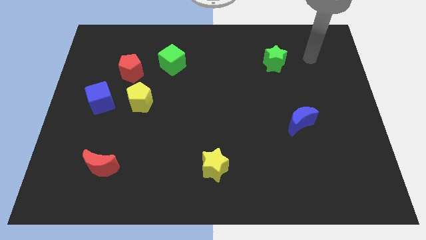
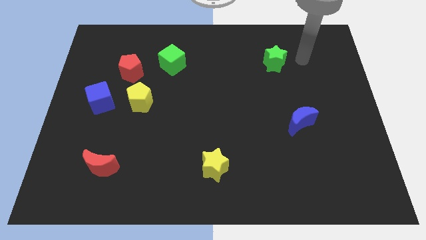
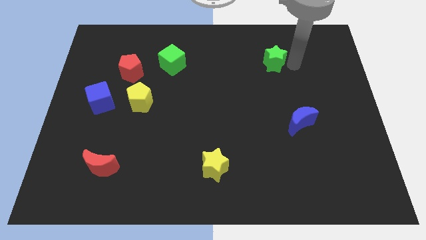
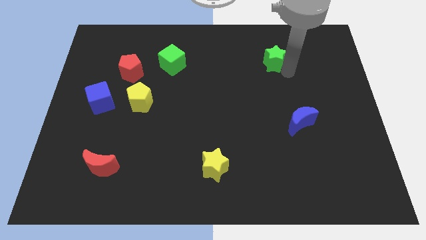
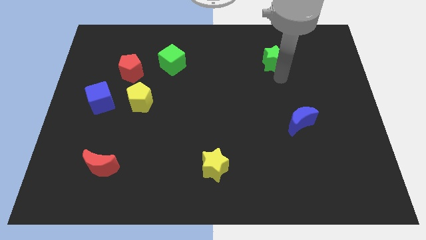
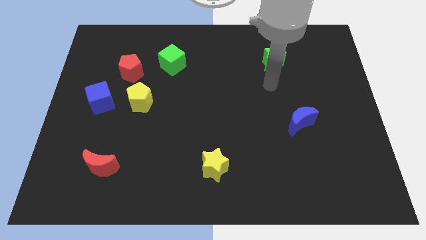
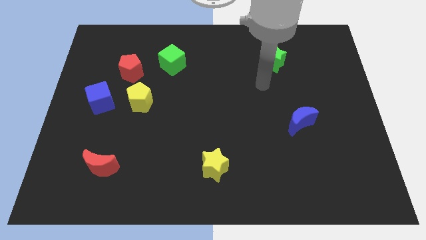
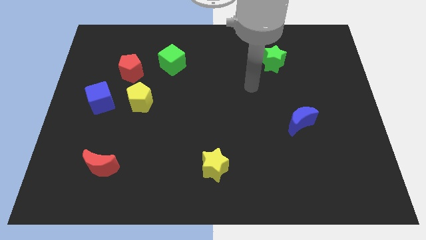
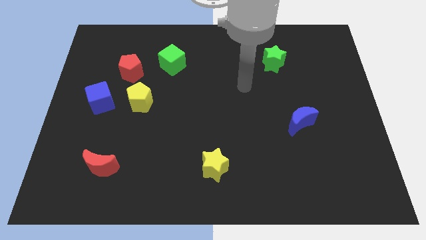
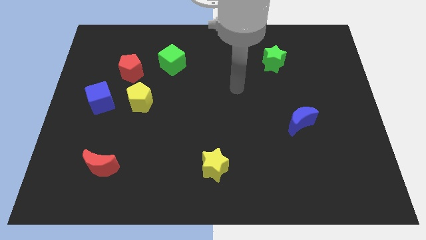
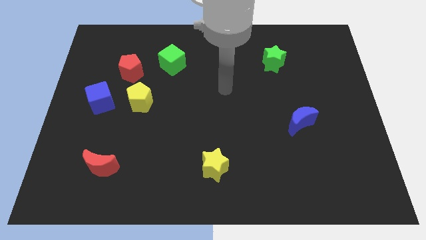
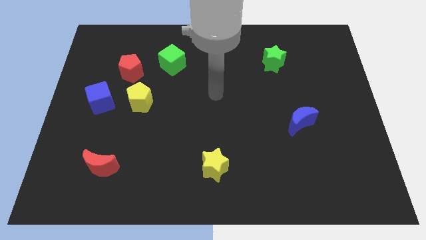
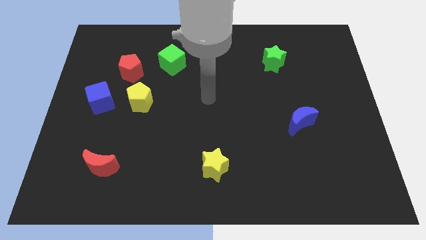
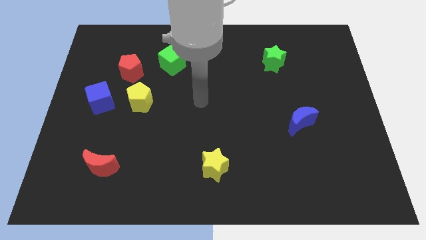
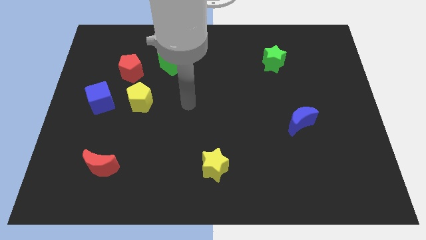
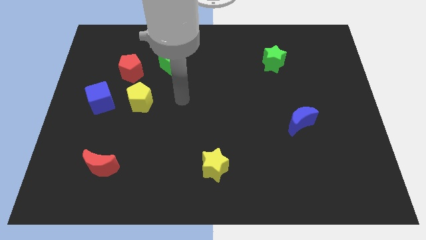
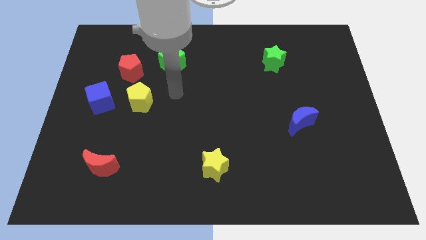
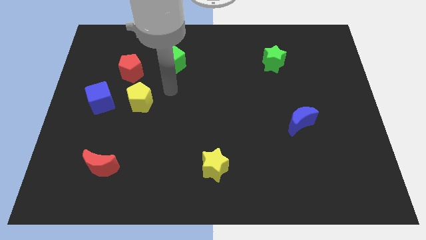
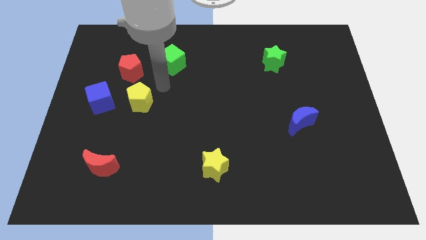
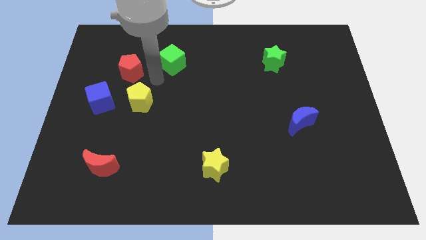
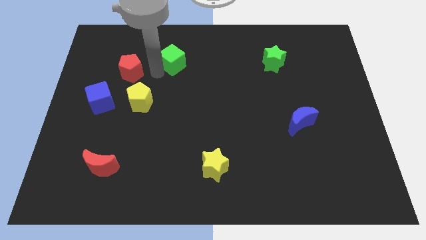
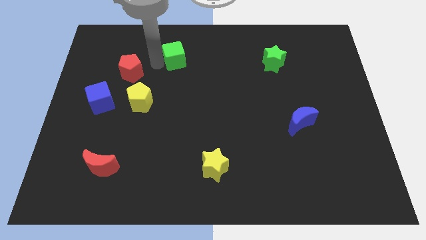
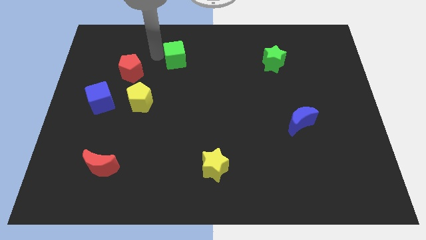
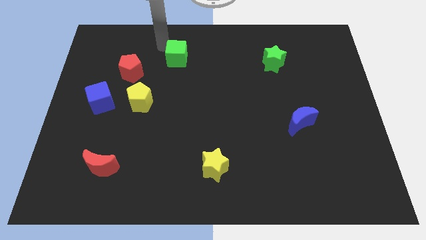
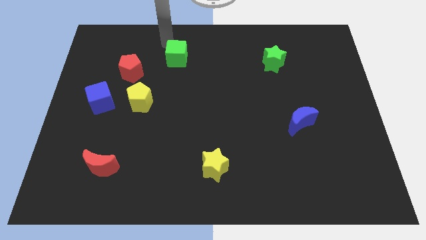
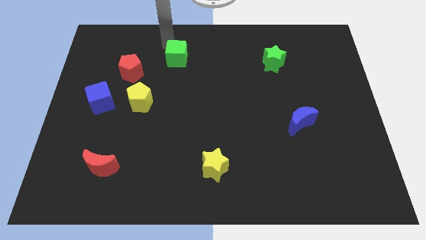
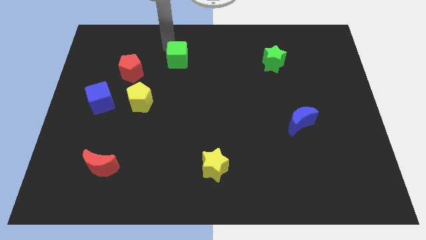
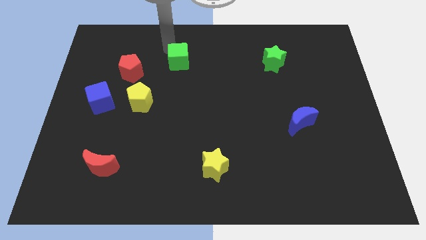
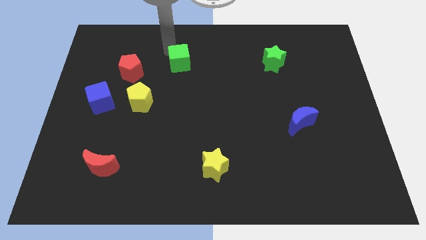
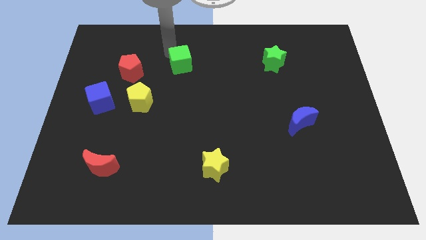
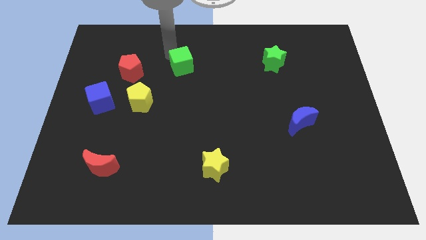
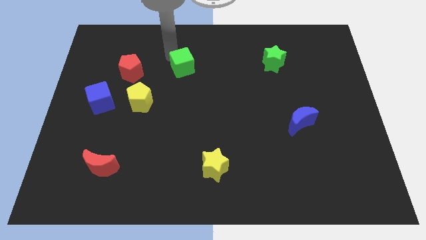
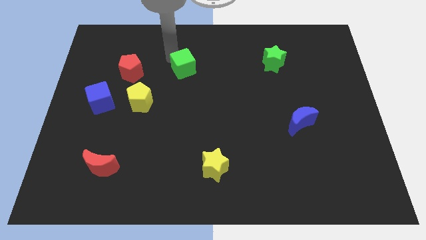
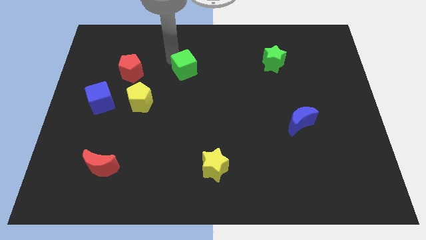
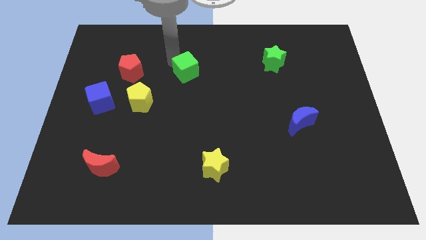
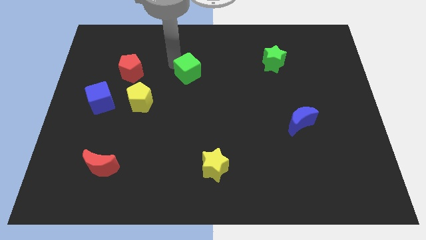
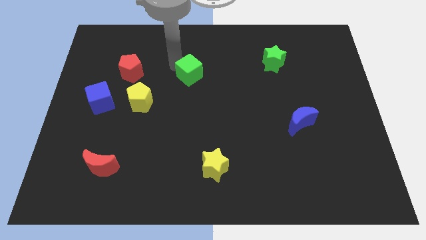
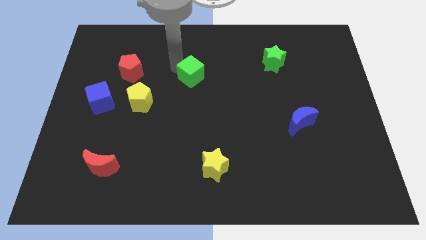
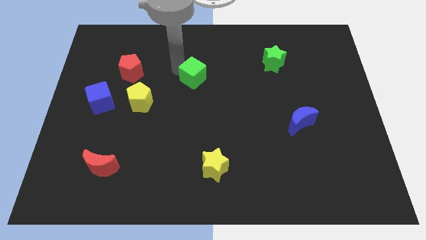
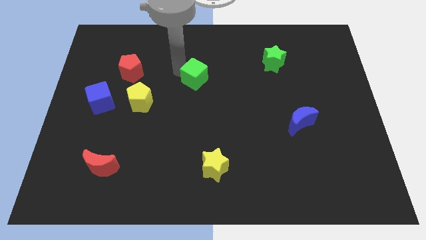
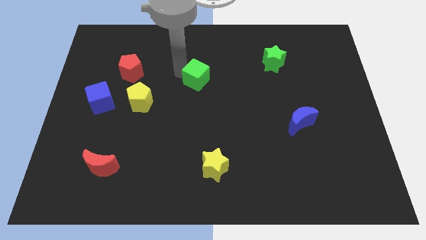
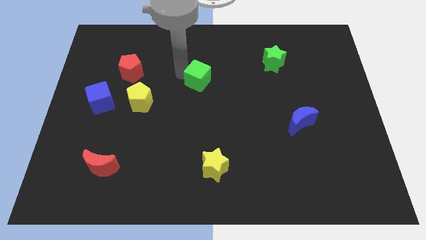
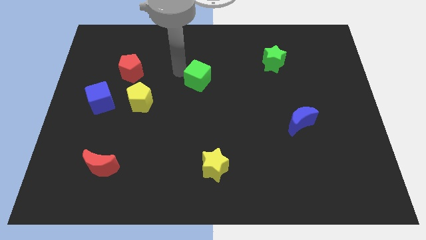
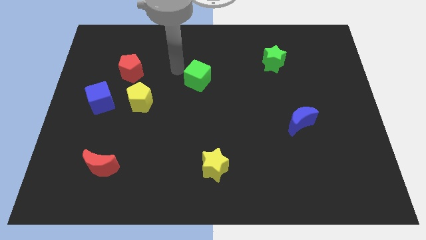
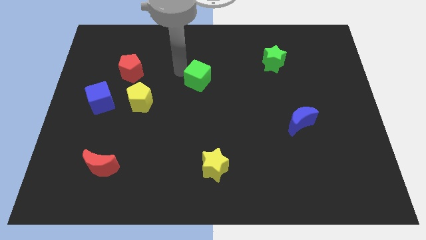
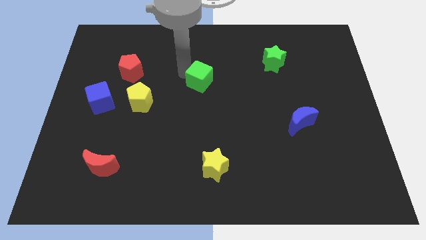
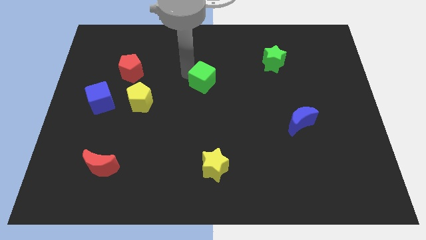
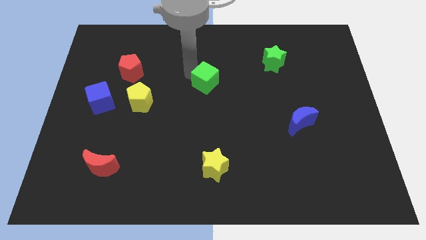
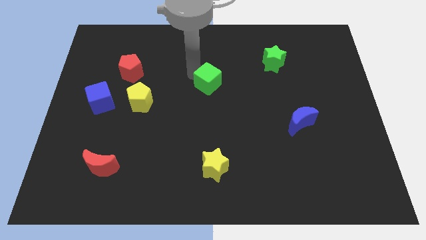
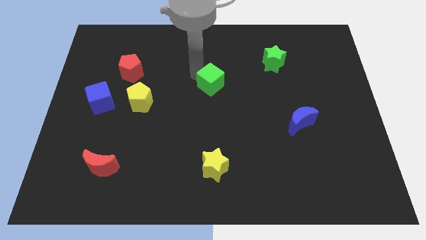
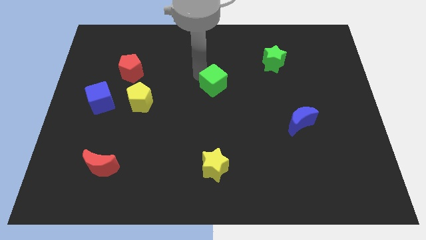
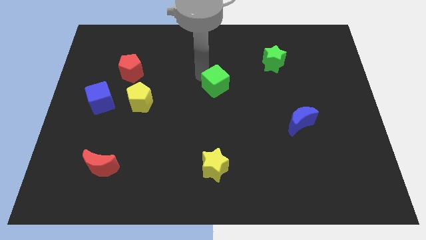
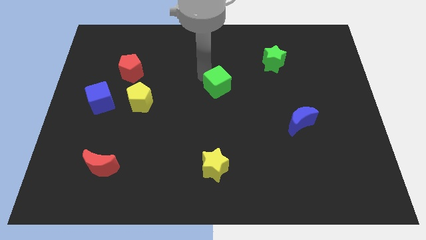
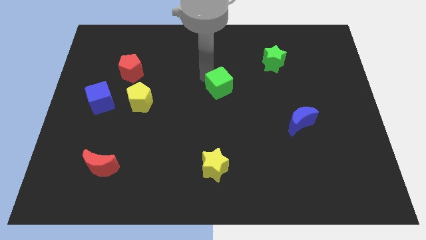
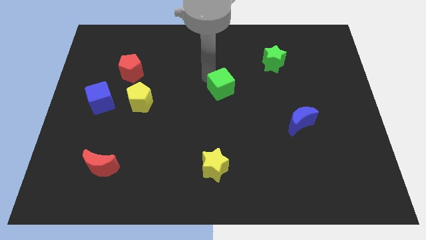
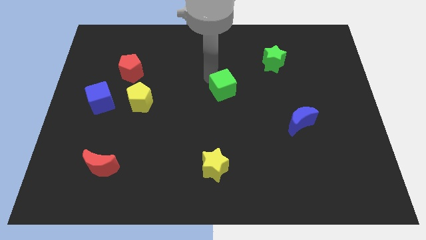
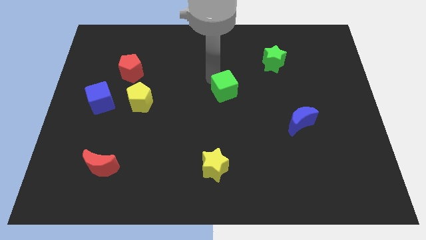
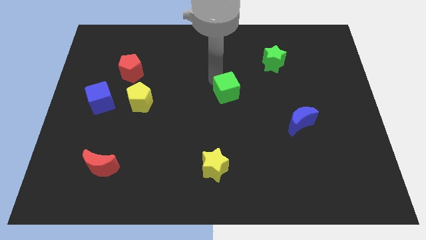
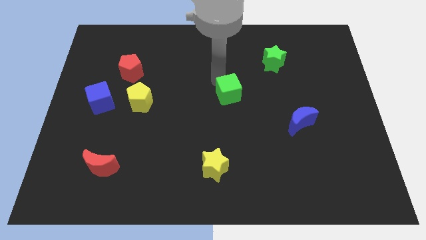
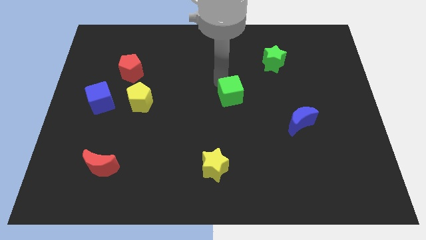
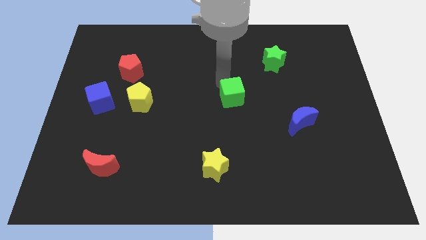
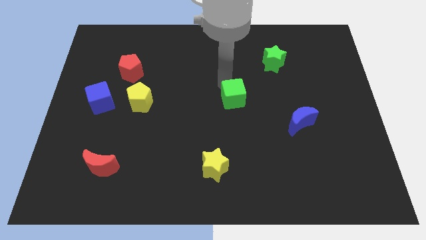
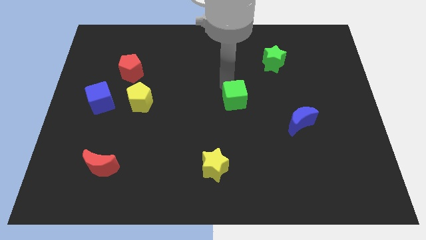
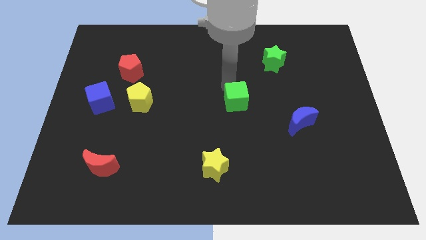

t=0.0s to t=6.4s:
slide the green cube downwards and then to the right

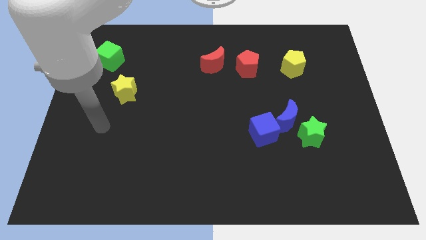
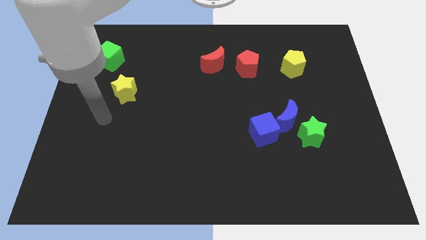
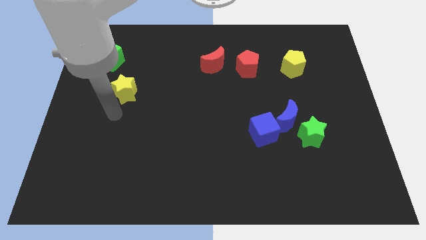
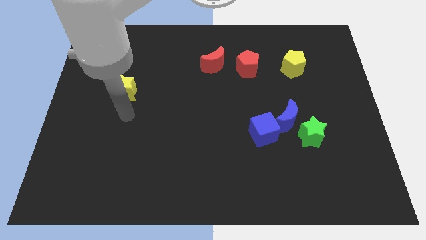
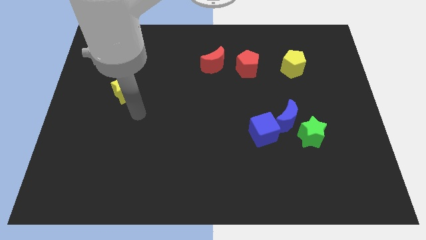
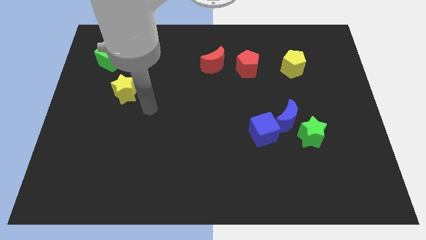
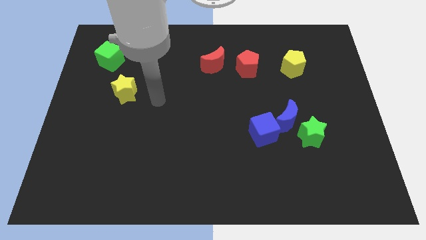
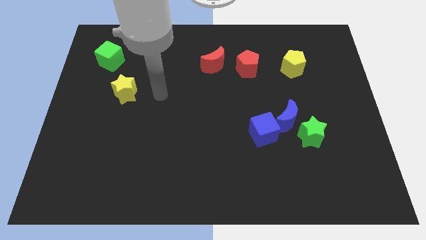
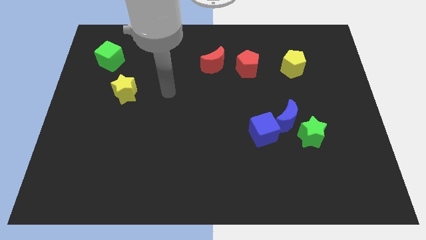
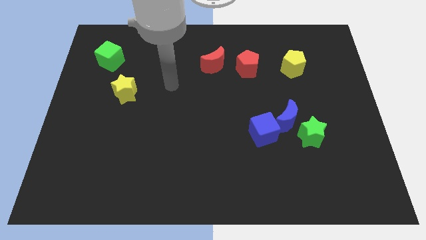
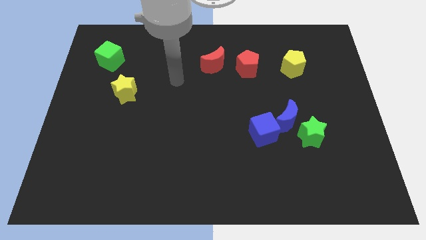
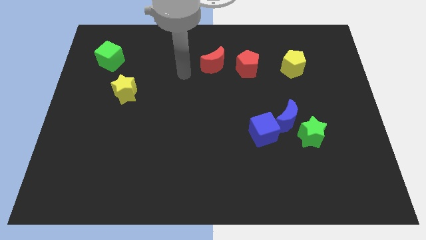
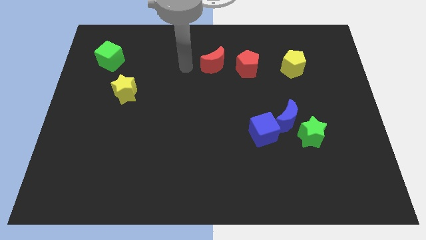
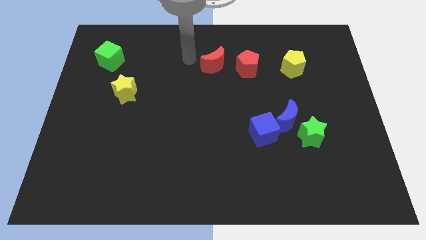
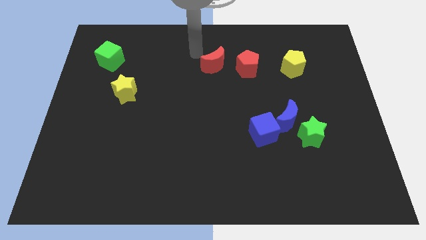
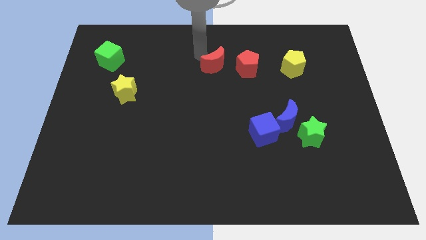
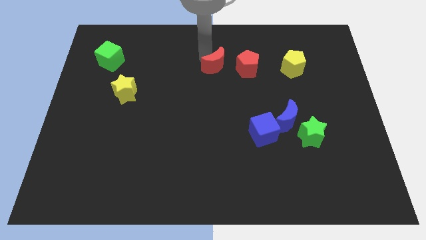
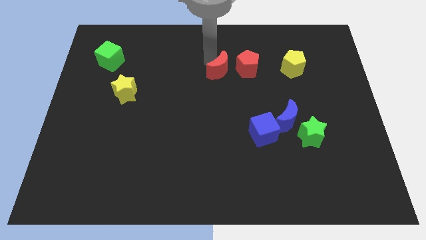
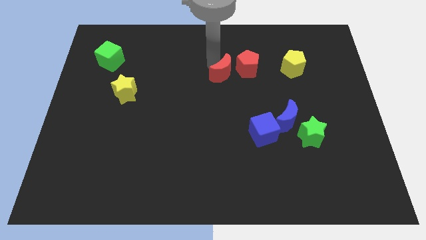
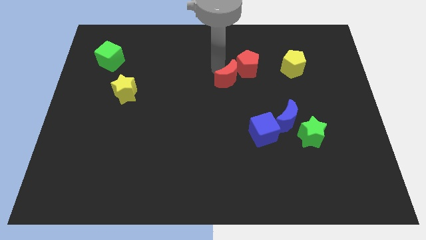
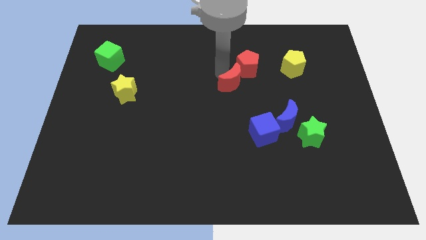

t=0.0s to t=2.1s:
move the red moon a little bit down and then to the right
